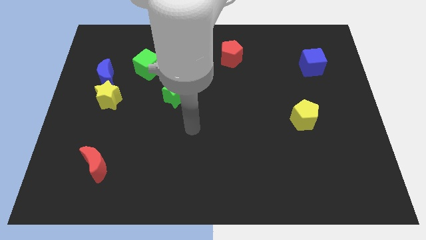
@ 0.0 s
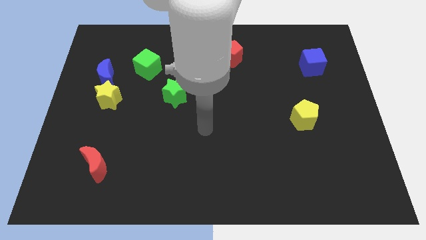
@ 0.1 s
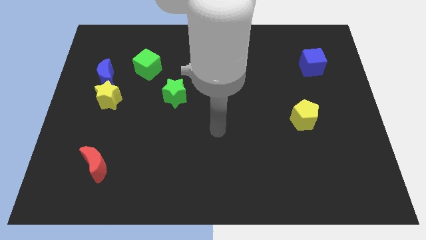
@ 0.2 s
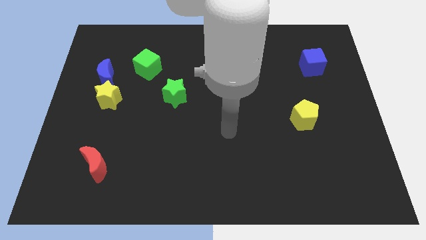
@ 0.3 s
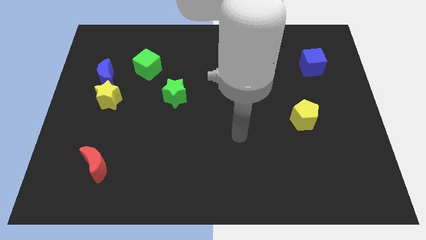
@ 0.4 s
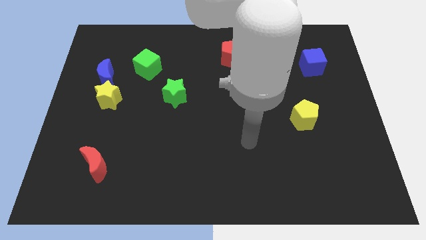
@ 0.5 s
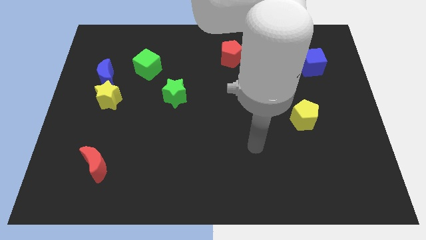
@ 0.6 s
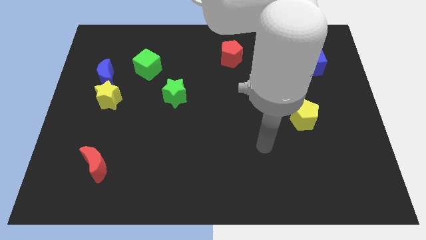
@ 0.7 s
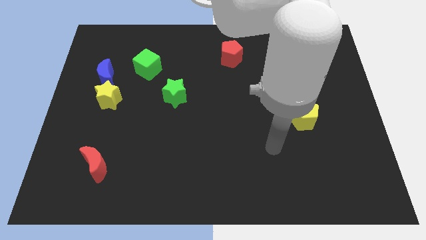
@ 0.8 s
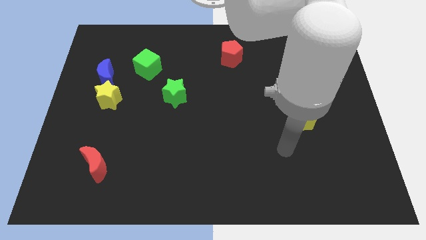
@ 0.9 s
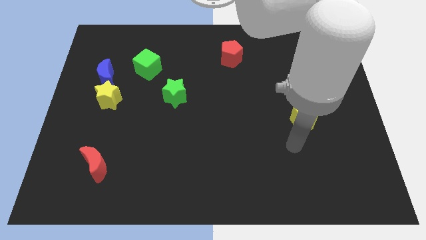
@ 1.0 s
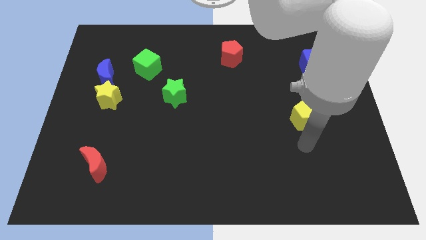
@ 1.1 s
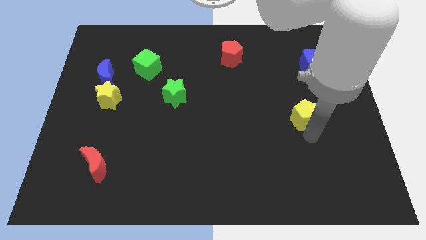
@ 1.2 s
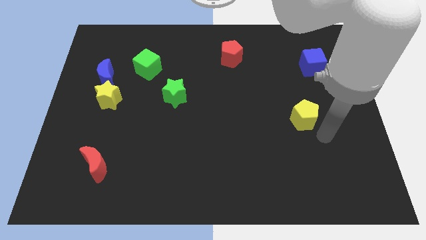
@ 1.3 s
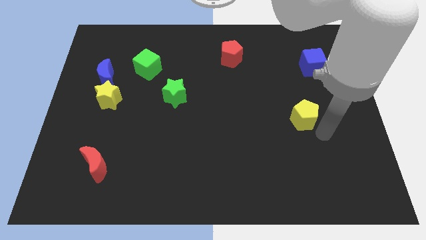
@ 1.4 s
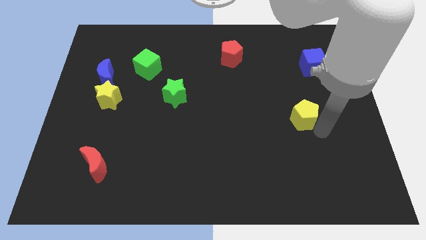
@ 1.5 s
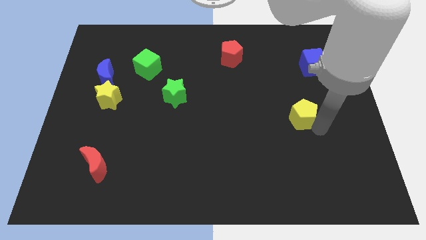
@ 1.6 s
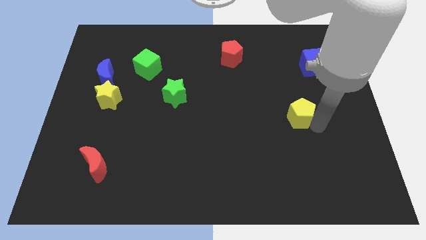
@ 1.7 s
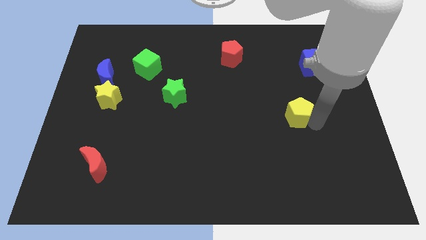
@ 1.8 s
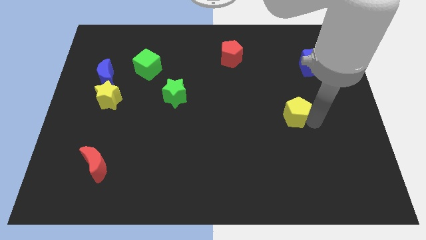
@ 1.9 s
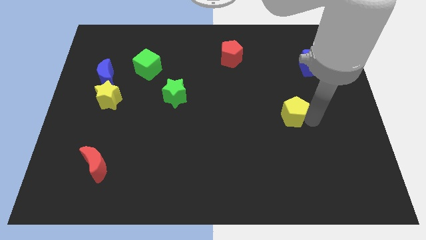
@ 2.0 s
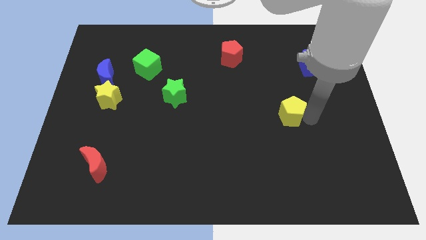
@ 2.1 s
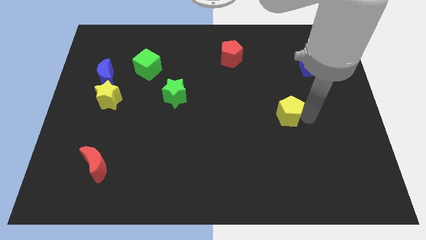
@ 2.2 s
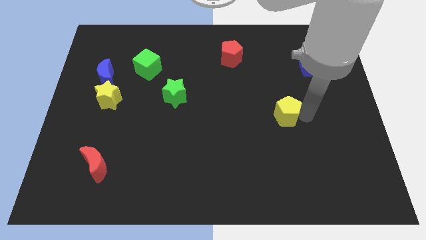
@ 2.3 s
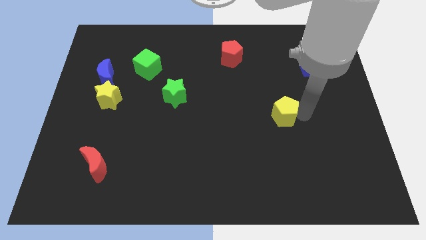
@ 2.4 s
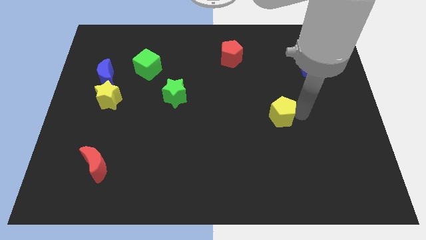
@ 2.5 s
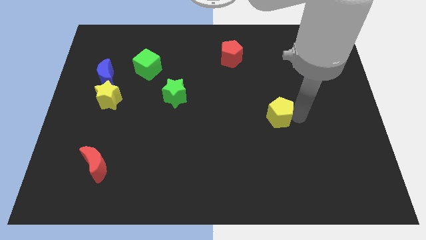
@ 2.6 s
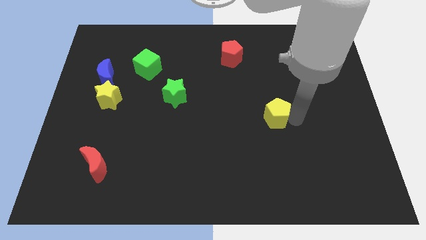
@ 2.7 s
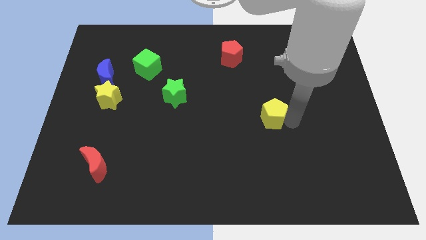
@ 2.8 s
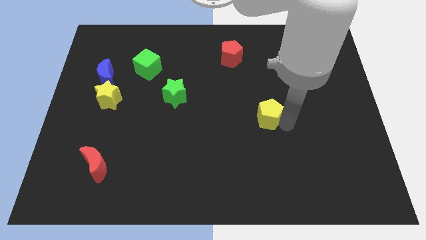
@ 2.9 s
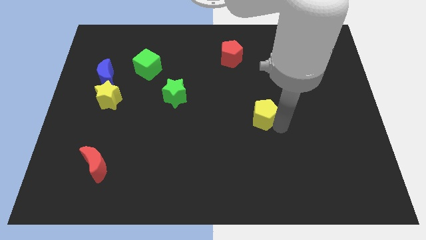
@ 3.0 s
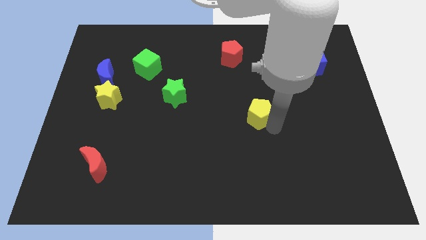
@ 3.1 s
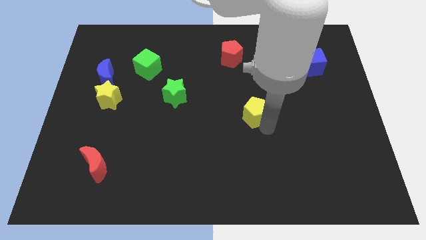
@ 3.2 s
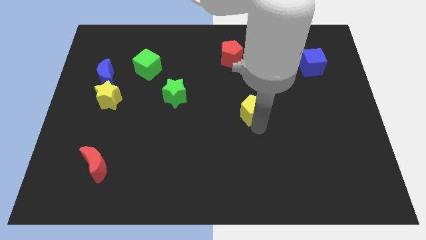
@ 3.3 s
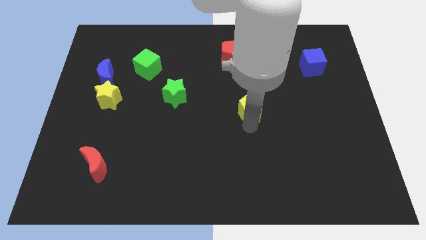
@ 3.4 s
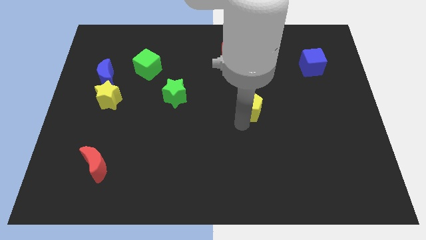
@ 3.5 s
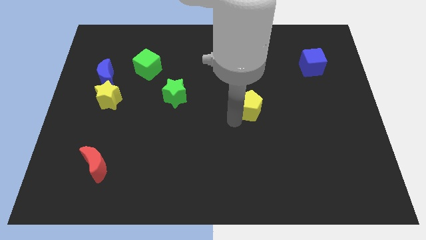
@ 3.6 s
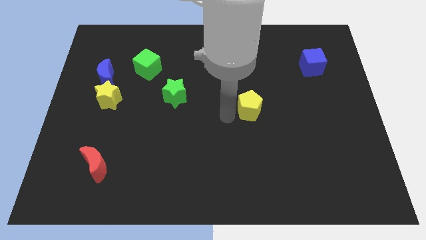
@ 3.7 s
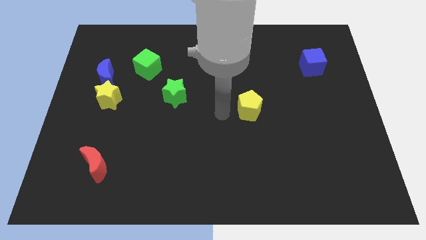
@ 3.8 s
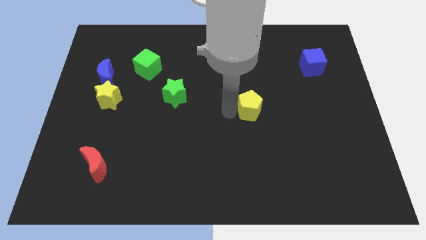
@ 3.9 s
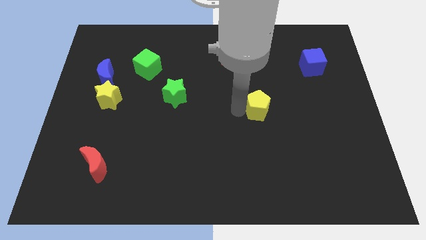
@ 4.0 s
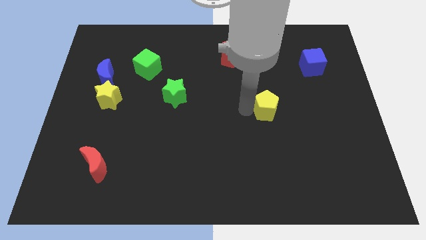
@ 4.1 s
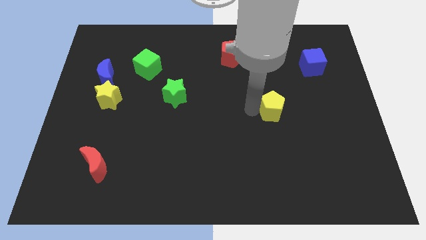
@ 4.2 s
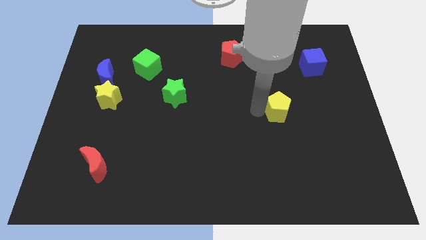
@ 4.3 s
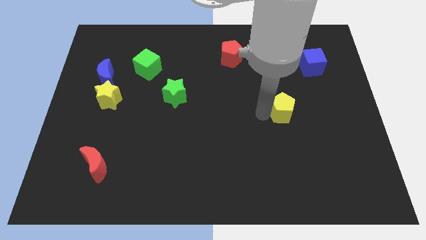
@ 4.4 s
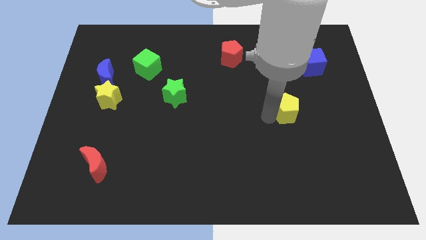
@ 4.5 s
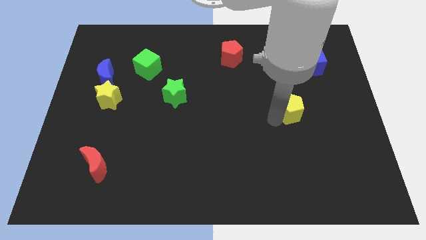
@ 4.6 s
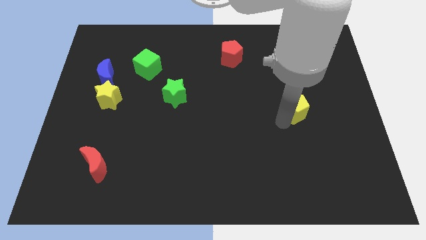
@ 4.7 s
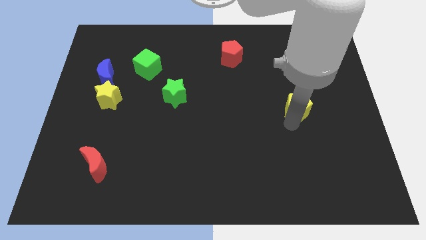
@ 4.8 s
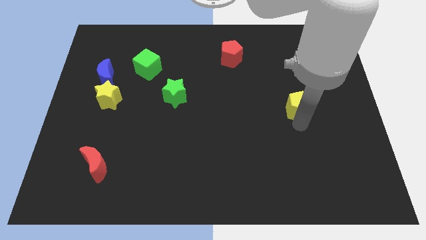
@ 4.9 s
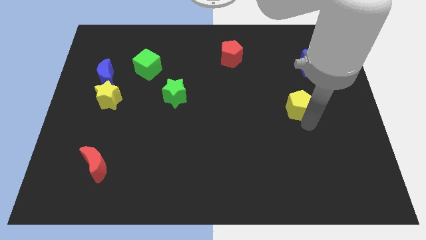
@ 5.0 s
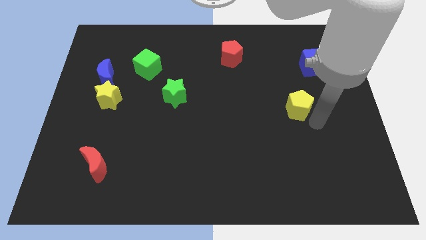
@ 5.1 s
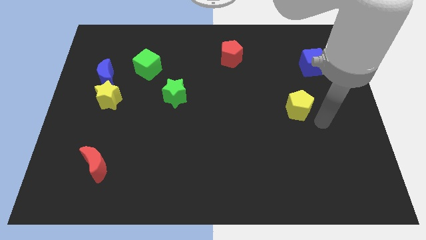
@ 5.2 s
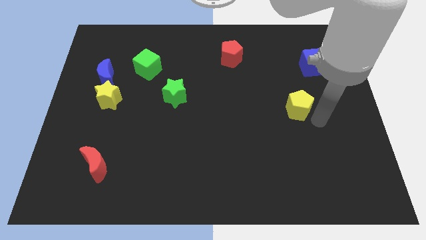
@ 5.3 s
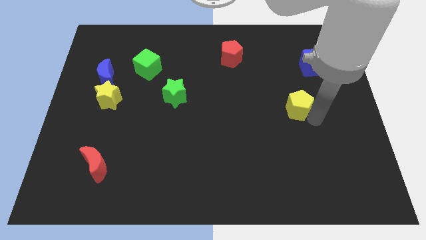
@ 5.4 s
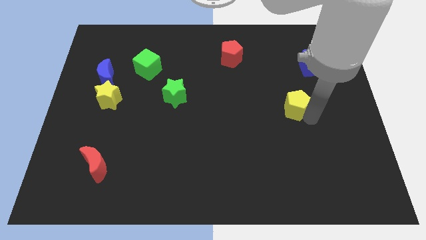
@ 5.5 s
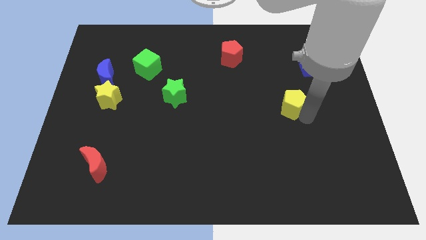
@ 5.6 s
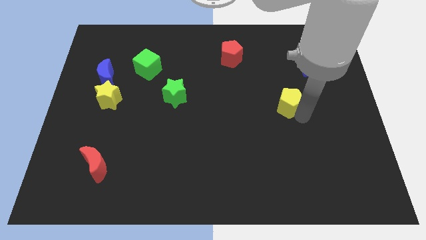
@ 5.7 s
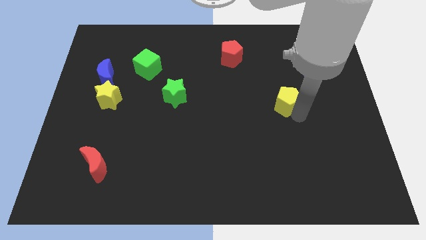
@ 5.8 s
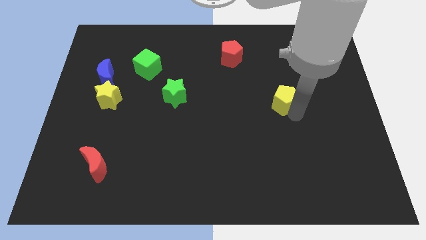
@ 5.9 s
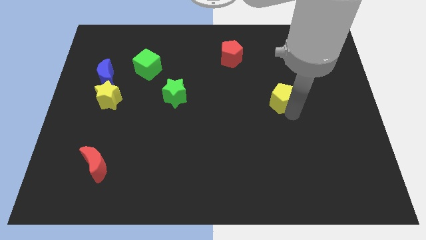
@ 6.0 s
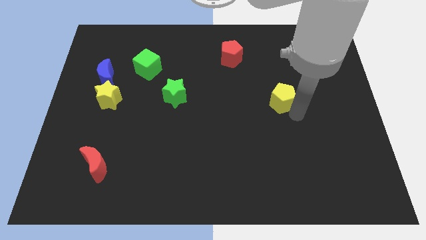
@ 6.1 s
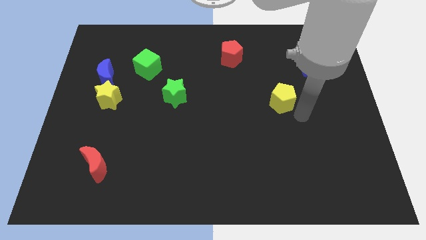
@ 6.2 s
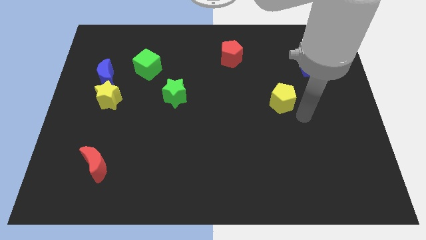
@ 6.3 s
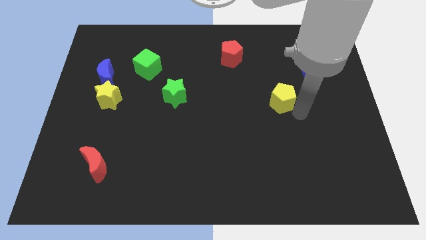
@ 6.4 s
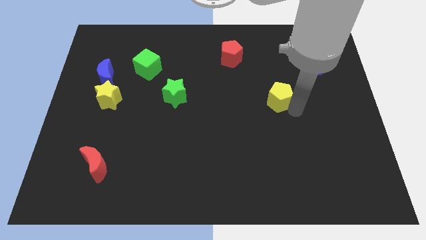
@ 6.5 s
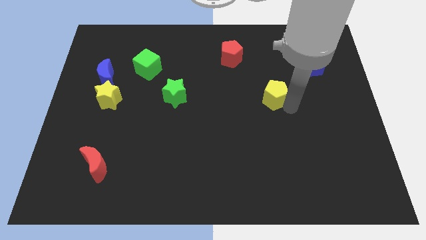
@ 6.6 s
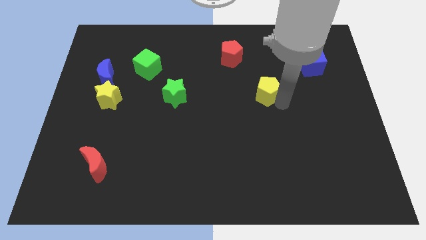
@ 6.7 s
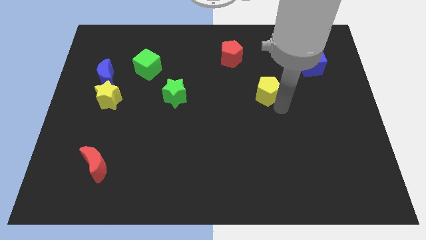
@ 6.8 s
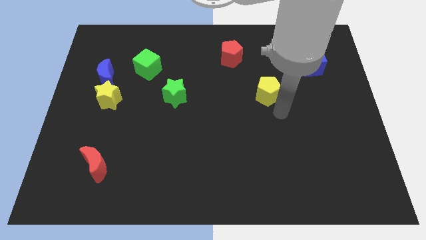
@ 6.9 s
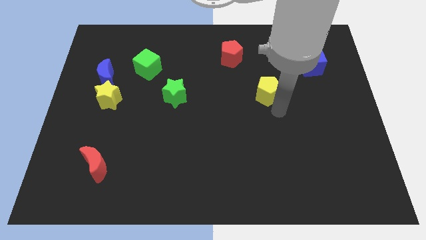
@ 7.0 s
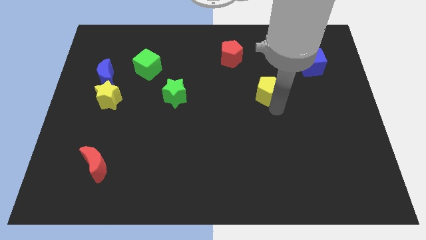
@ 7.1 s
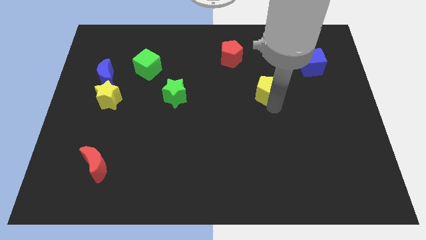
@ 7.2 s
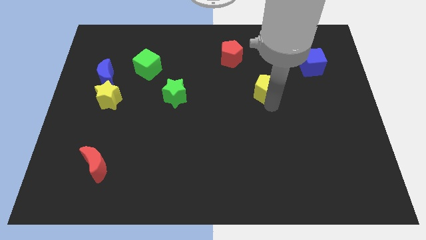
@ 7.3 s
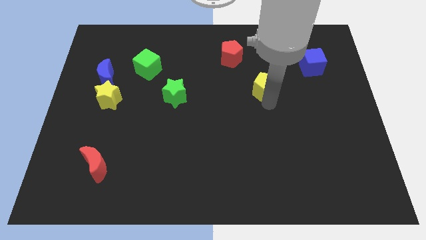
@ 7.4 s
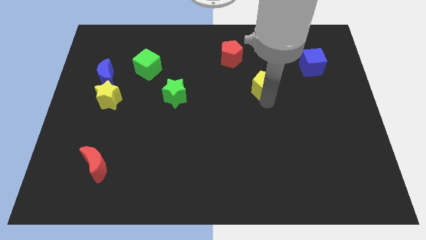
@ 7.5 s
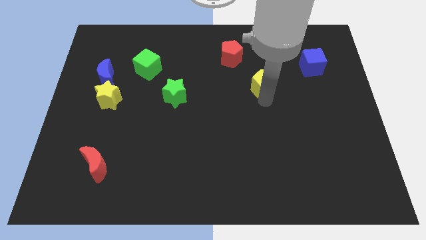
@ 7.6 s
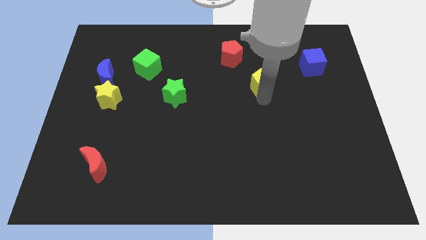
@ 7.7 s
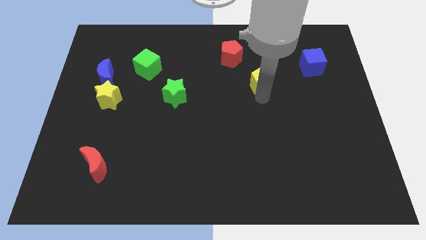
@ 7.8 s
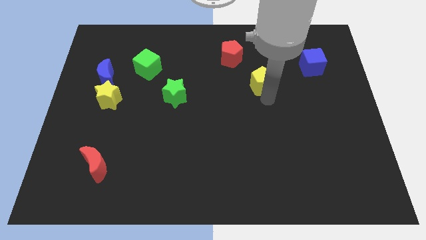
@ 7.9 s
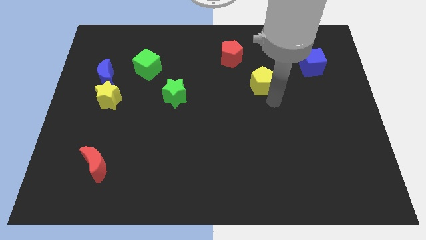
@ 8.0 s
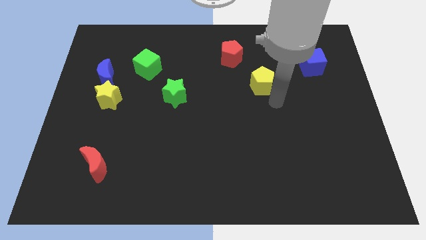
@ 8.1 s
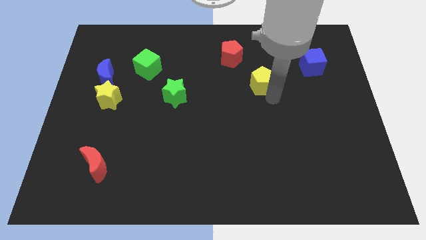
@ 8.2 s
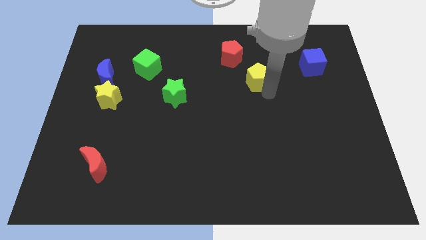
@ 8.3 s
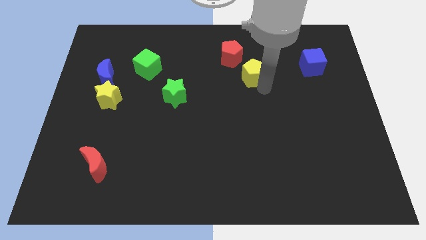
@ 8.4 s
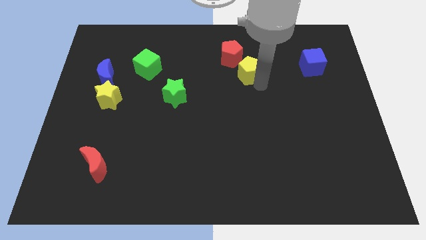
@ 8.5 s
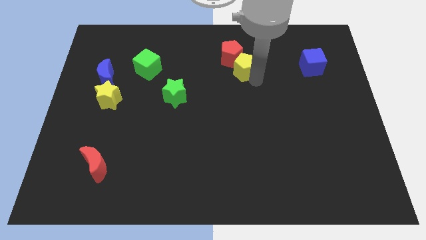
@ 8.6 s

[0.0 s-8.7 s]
put the yellow pentagon next to the red pentagon
